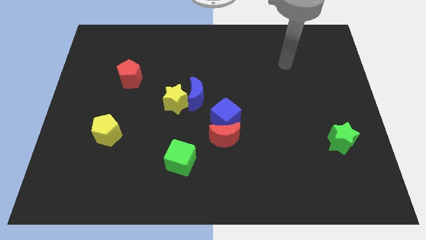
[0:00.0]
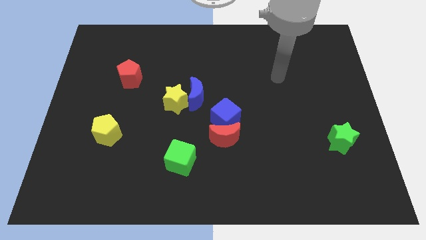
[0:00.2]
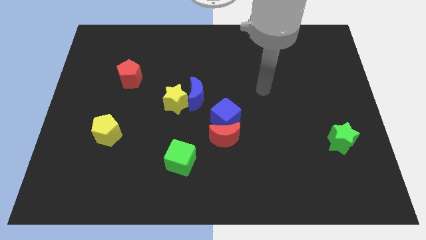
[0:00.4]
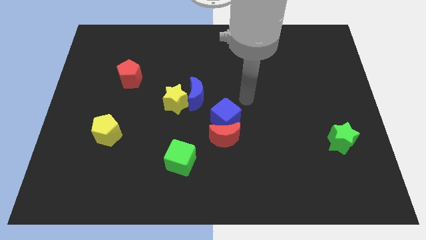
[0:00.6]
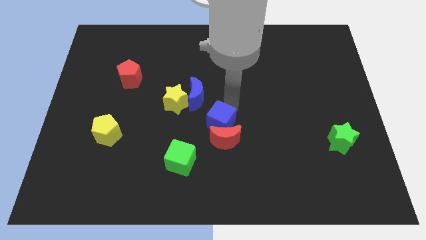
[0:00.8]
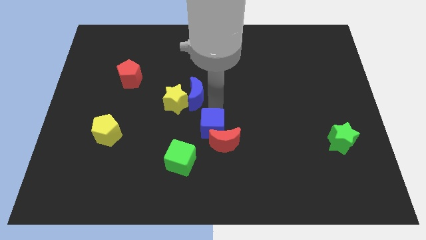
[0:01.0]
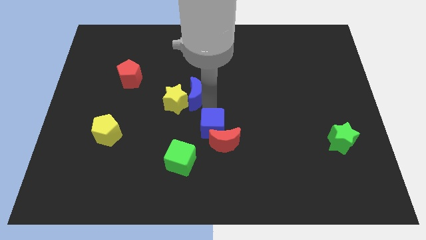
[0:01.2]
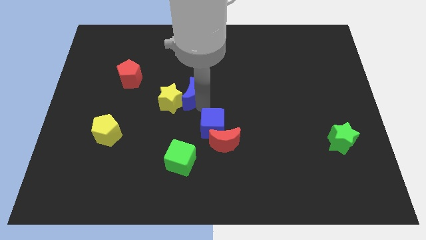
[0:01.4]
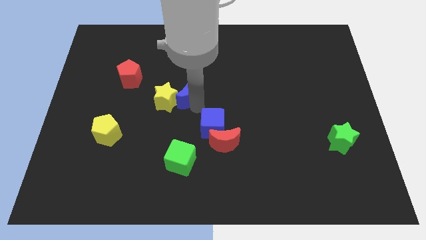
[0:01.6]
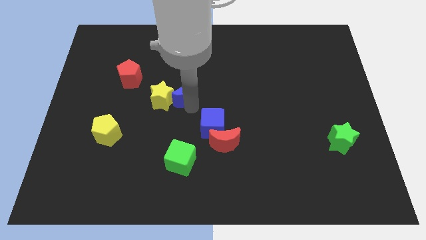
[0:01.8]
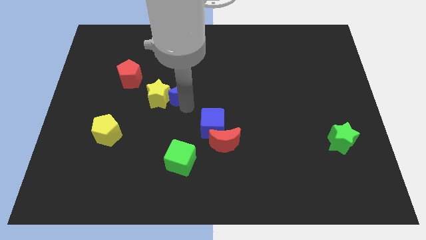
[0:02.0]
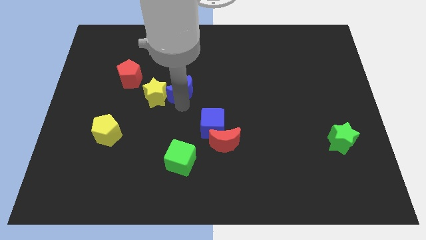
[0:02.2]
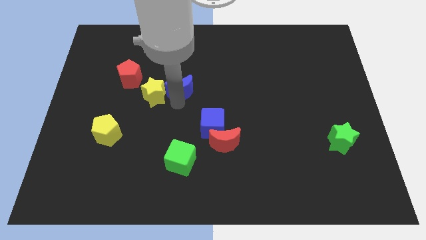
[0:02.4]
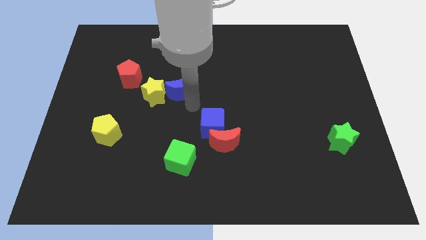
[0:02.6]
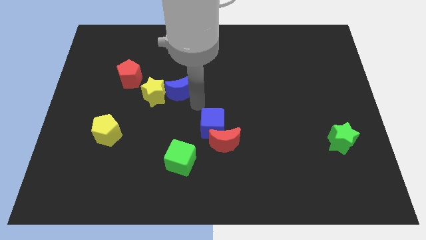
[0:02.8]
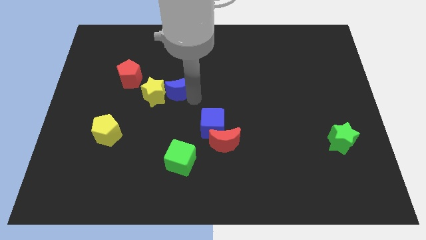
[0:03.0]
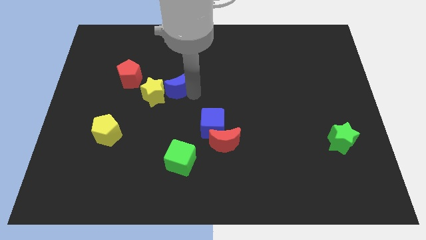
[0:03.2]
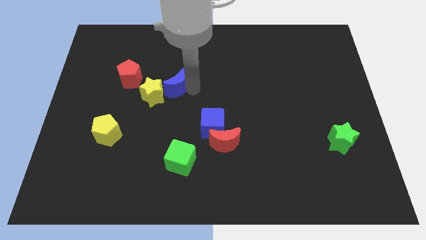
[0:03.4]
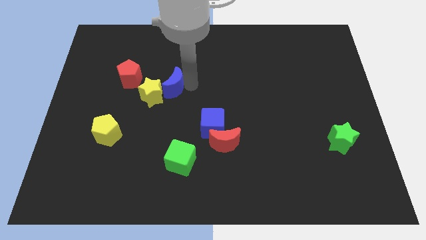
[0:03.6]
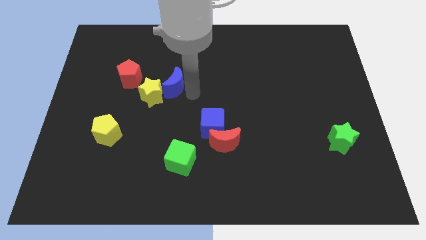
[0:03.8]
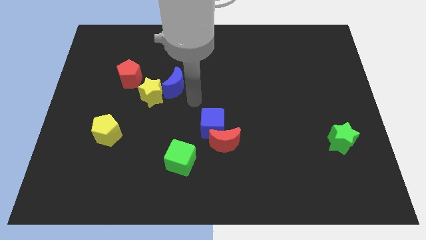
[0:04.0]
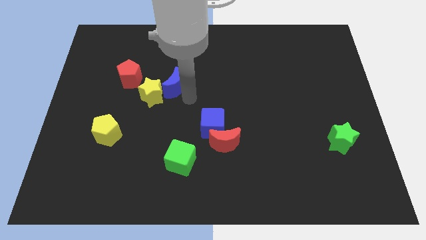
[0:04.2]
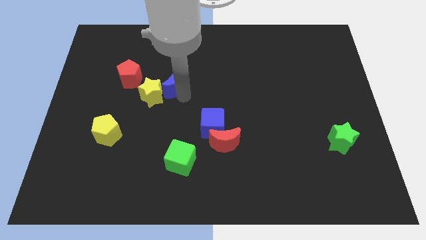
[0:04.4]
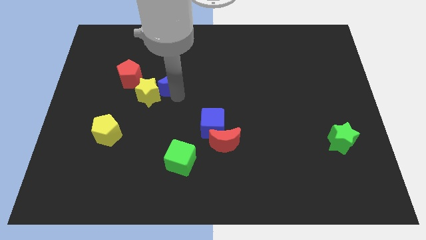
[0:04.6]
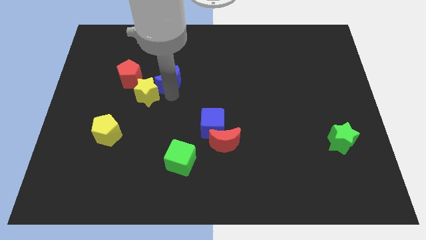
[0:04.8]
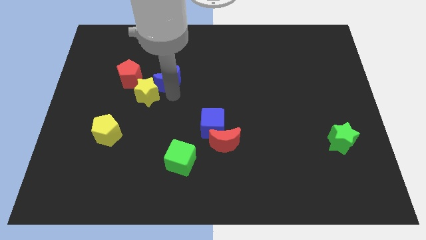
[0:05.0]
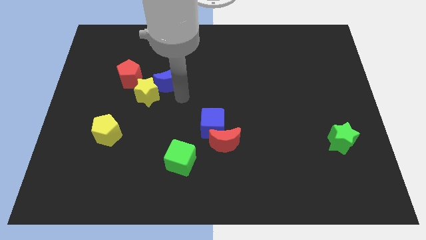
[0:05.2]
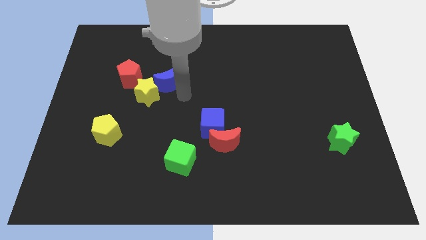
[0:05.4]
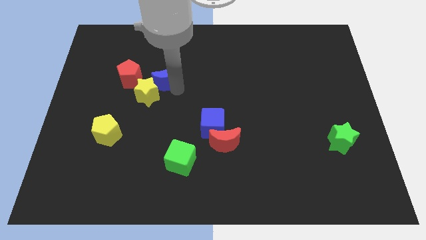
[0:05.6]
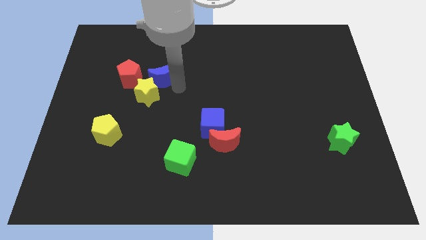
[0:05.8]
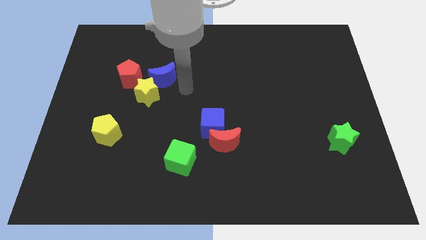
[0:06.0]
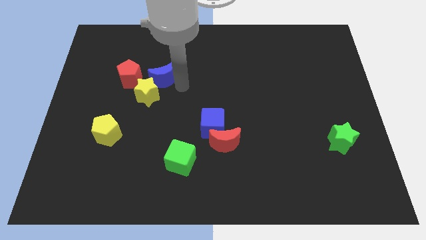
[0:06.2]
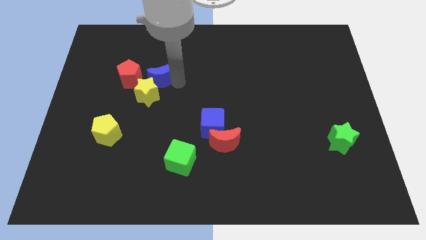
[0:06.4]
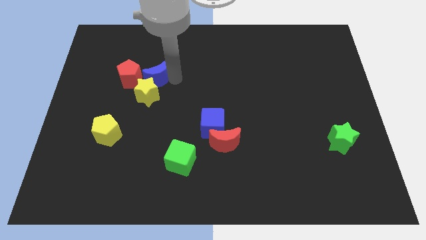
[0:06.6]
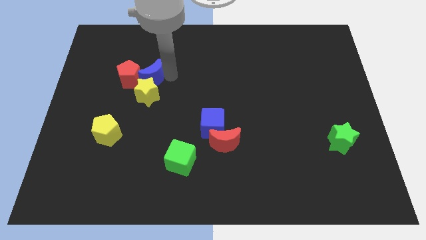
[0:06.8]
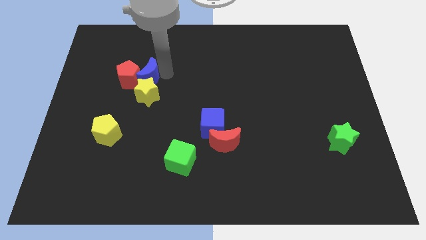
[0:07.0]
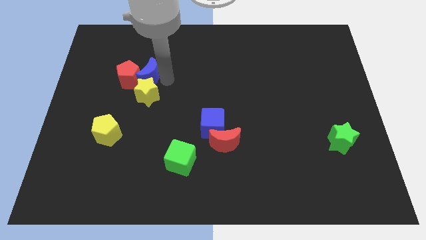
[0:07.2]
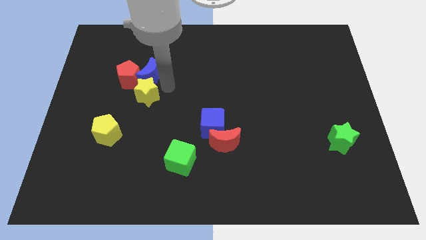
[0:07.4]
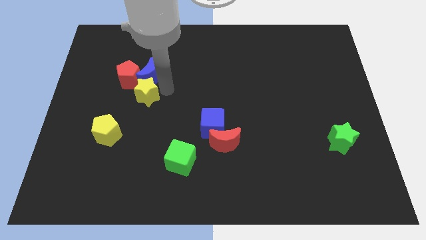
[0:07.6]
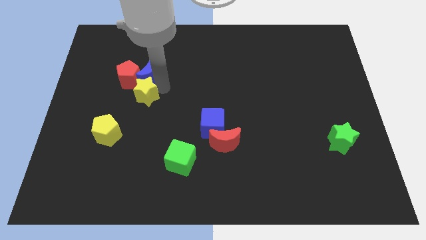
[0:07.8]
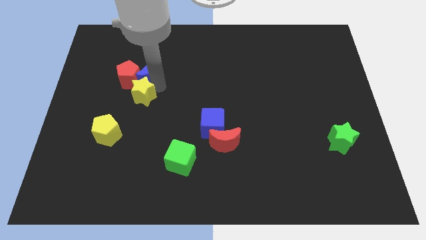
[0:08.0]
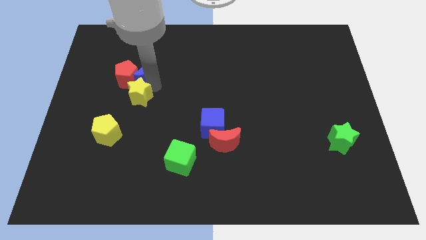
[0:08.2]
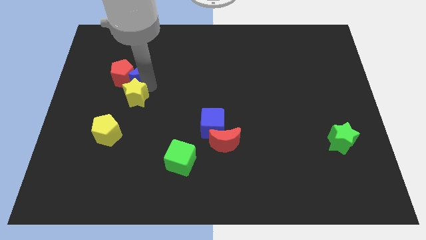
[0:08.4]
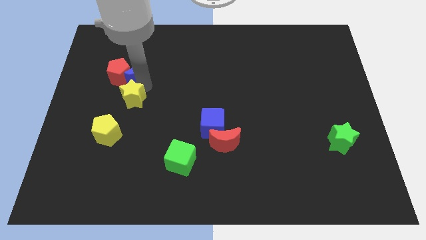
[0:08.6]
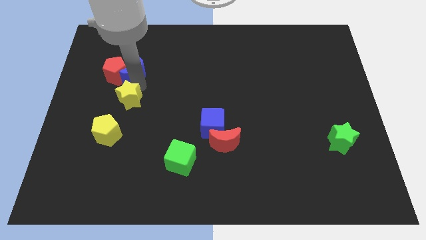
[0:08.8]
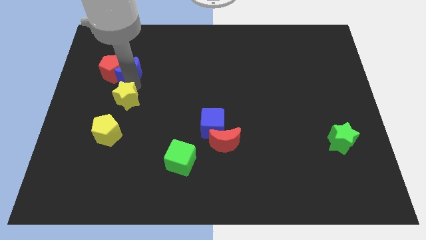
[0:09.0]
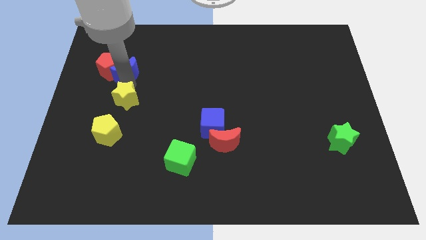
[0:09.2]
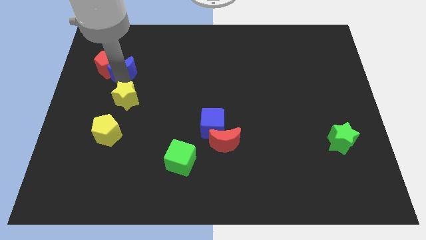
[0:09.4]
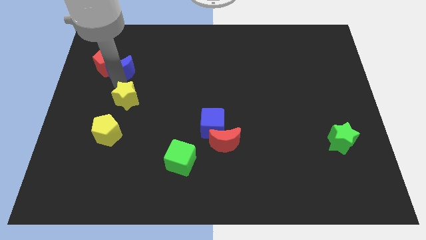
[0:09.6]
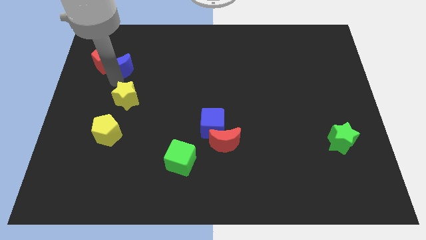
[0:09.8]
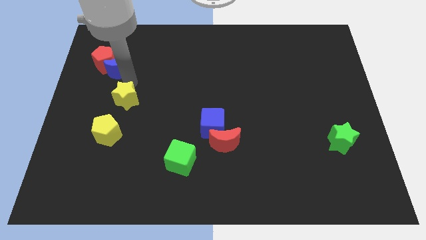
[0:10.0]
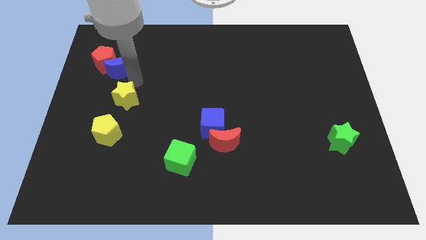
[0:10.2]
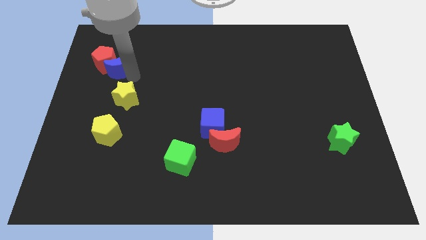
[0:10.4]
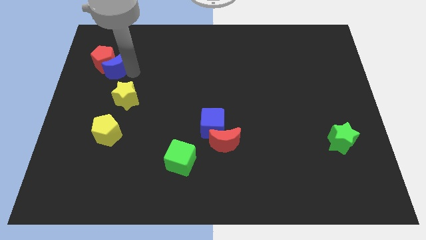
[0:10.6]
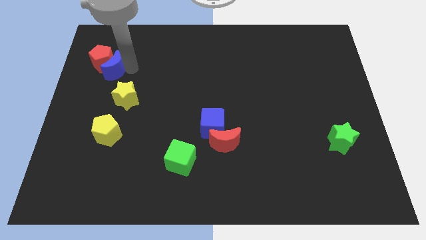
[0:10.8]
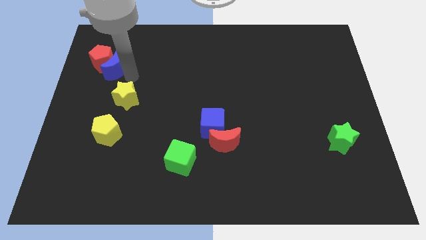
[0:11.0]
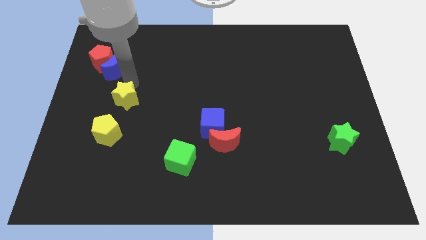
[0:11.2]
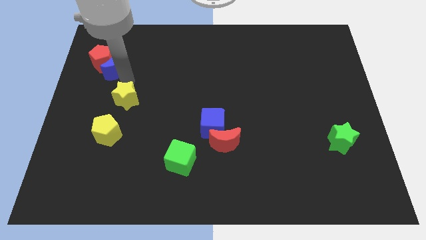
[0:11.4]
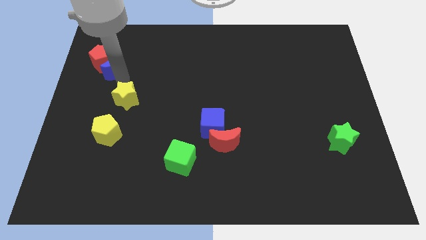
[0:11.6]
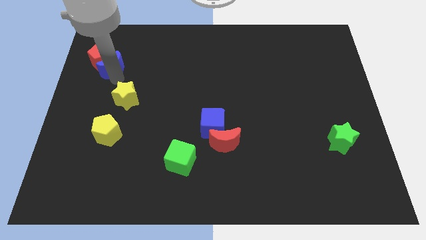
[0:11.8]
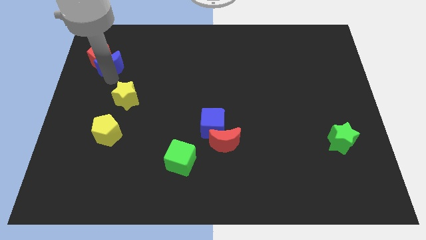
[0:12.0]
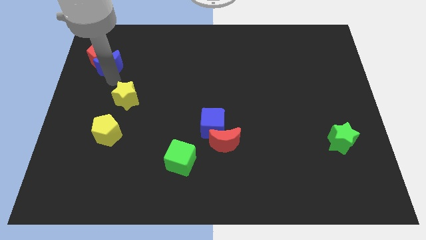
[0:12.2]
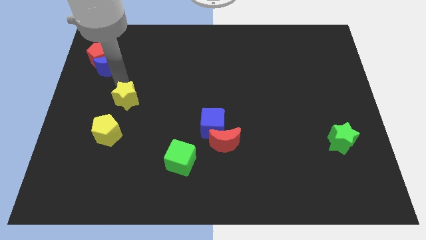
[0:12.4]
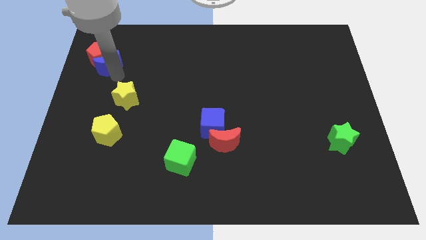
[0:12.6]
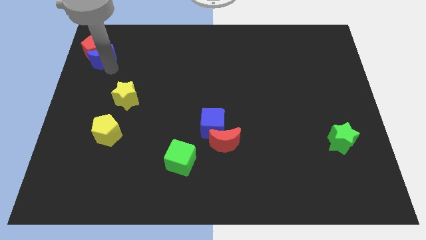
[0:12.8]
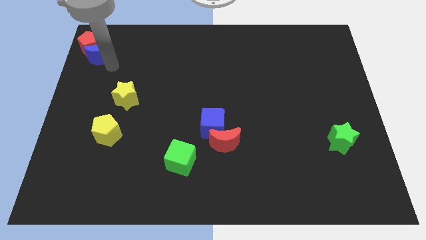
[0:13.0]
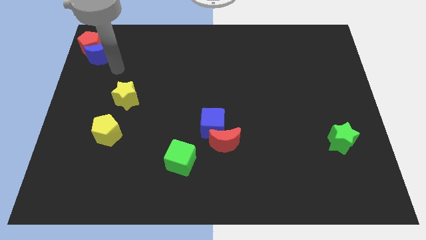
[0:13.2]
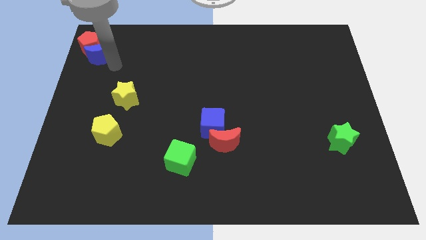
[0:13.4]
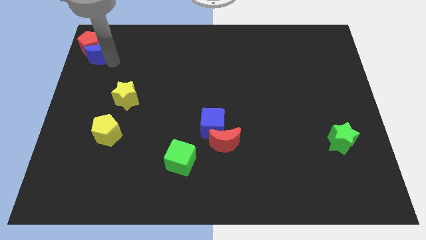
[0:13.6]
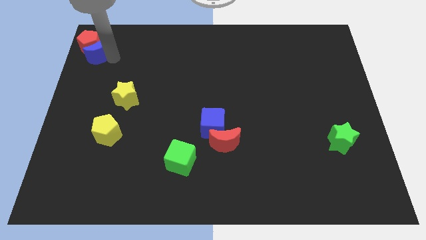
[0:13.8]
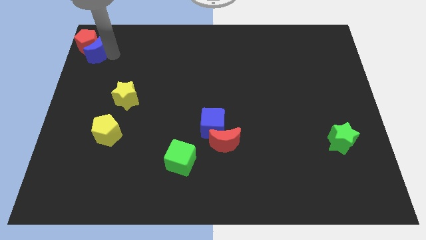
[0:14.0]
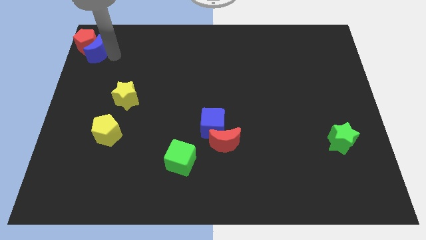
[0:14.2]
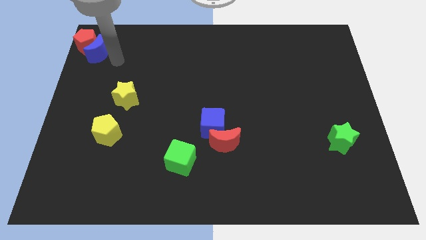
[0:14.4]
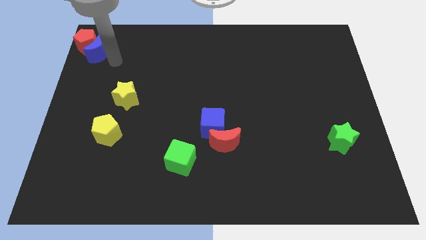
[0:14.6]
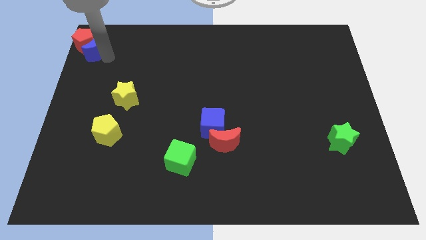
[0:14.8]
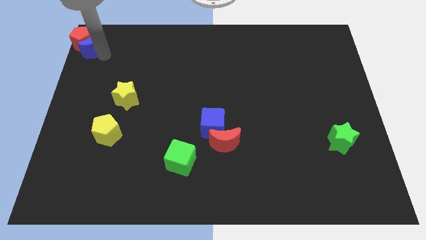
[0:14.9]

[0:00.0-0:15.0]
move the blue moon to the top left corner
